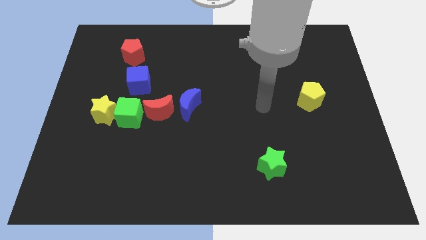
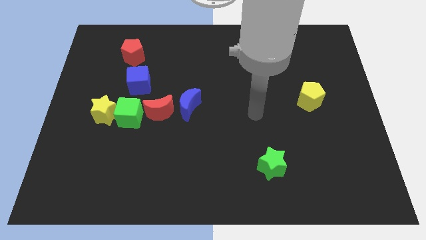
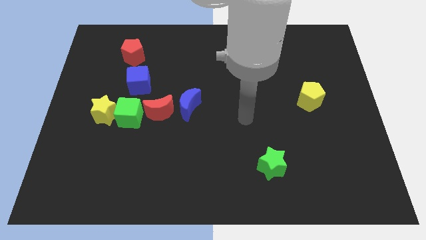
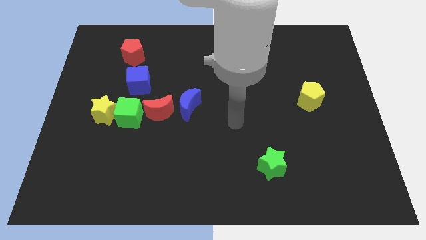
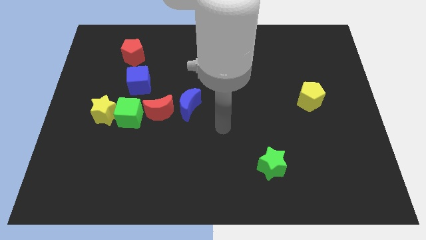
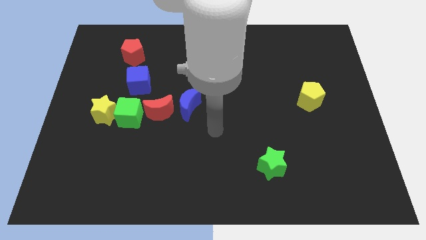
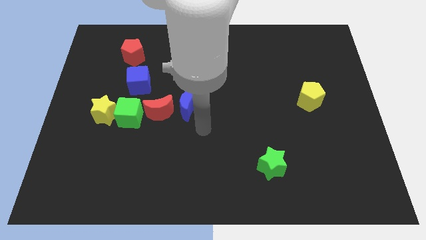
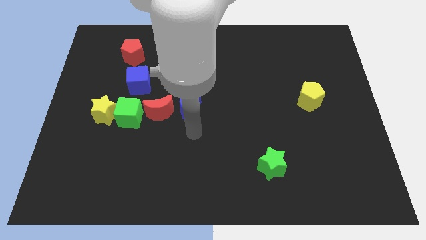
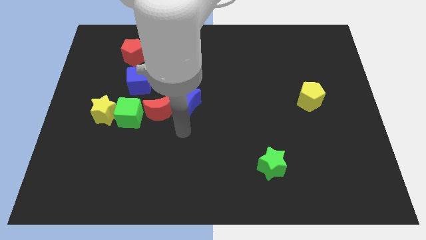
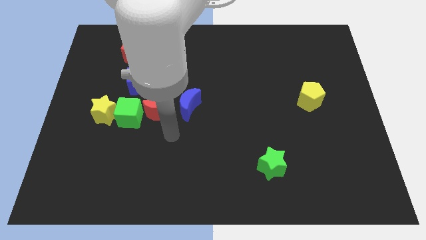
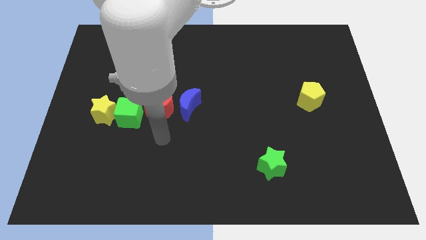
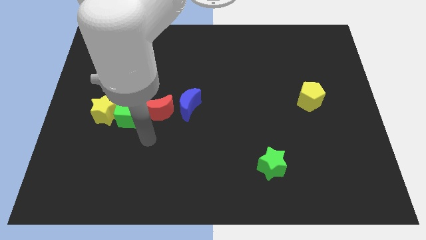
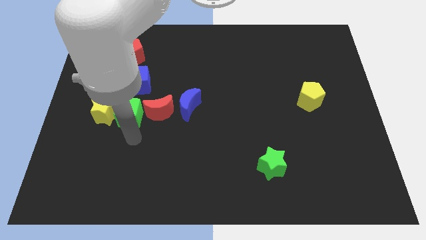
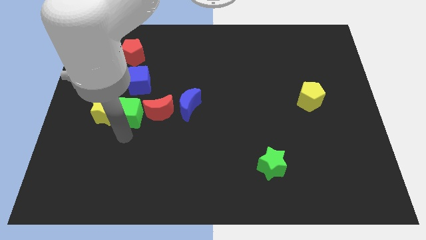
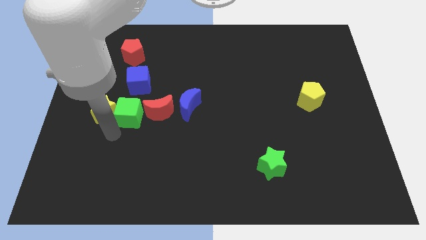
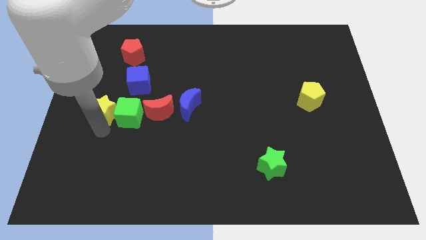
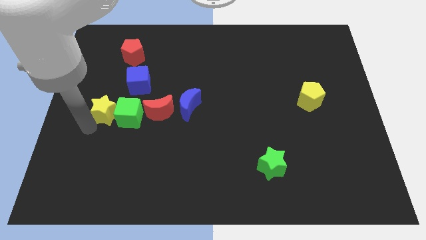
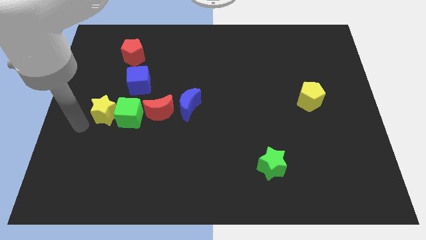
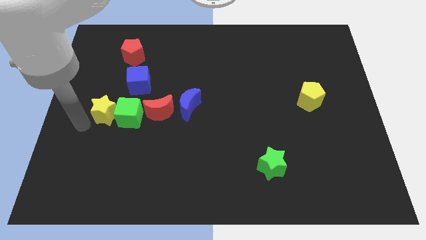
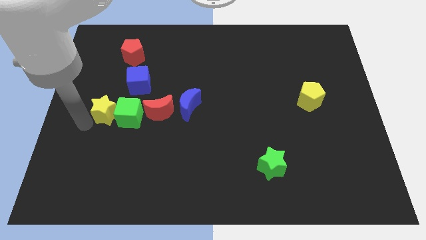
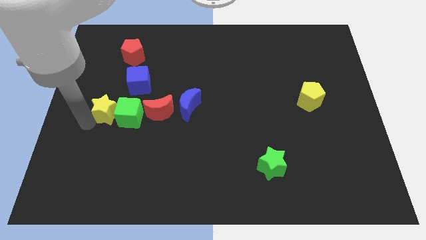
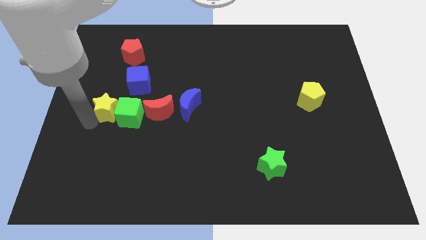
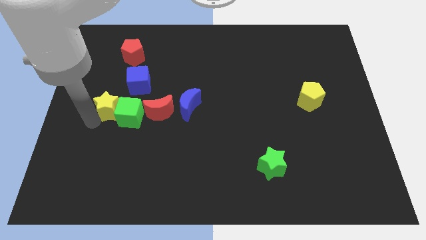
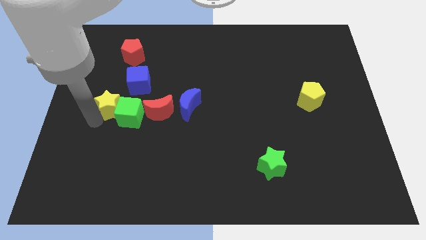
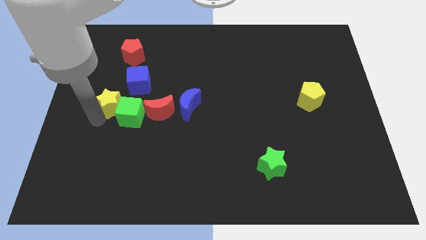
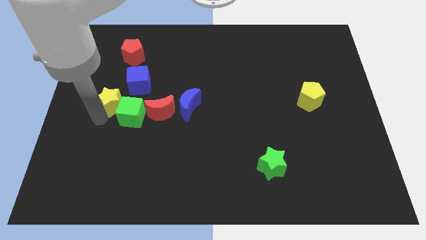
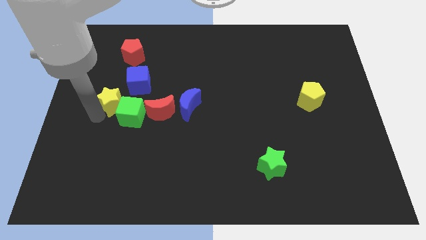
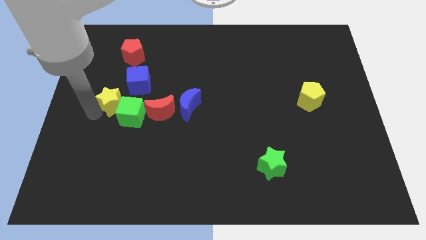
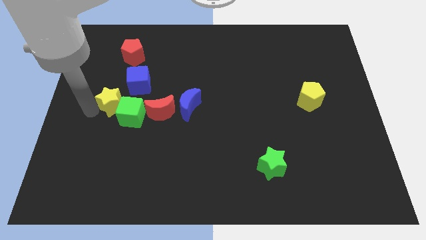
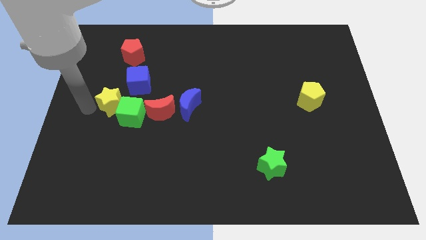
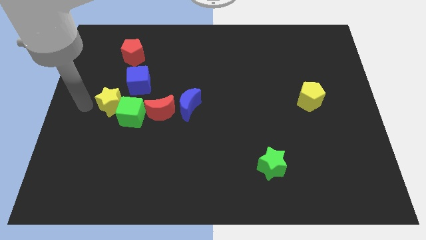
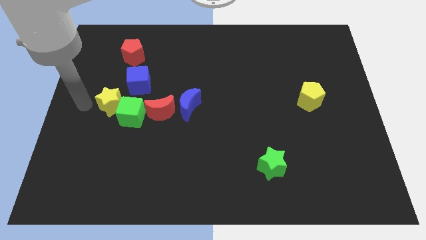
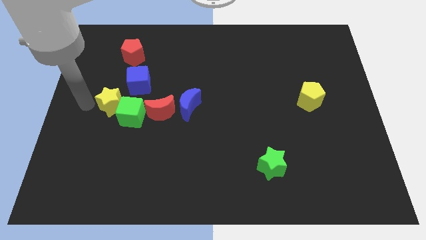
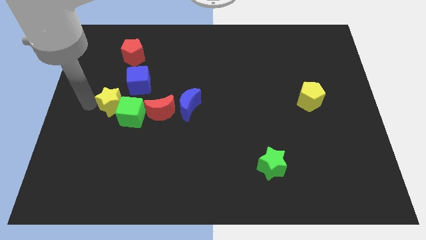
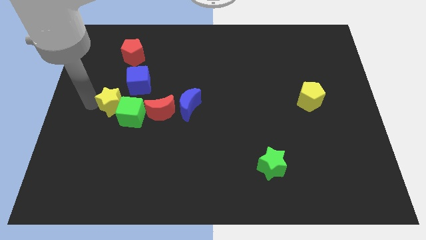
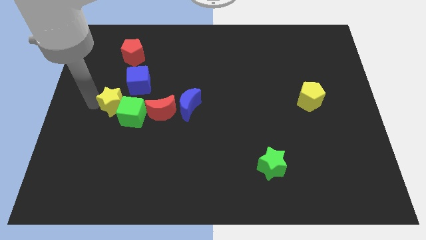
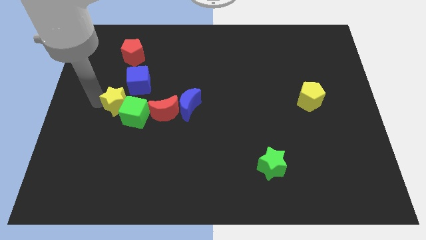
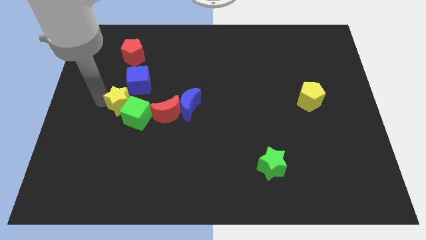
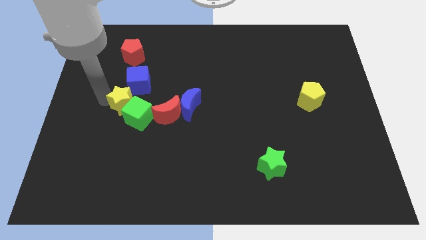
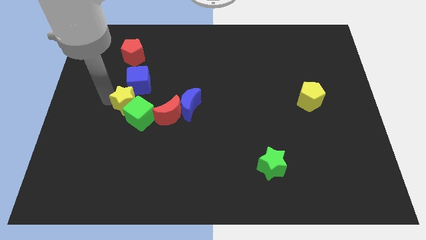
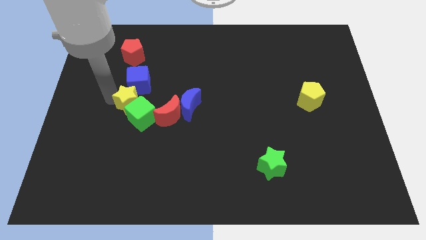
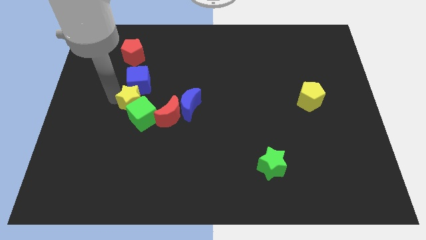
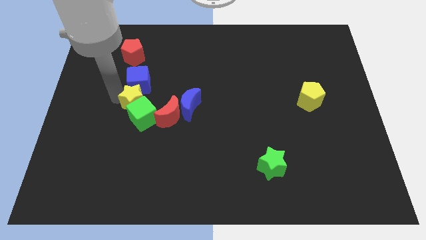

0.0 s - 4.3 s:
move the yellow star upwards and to the right diagonally a little bit

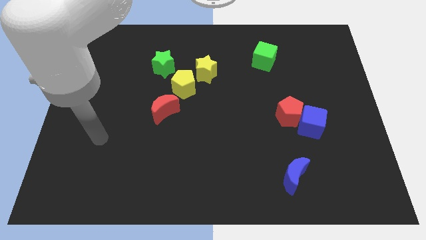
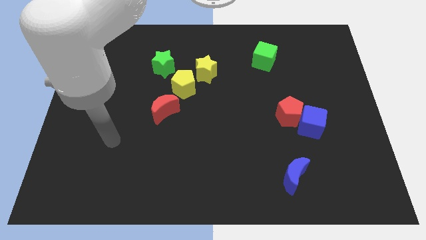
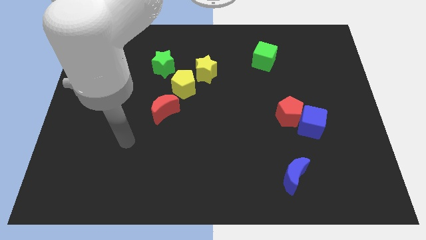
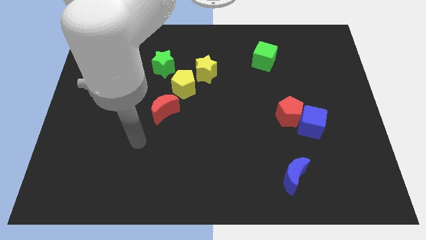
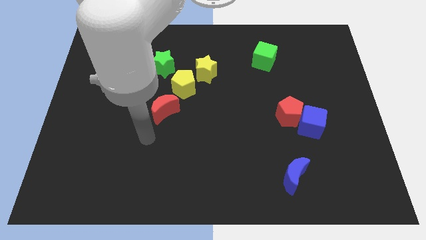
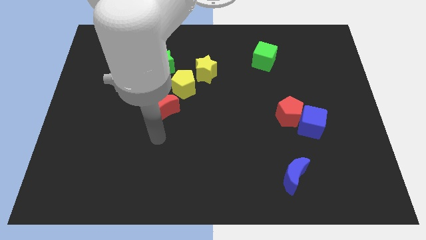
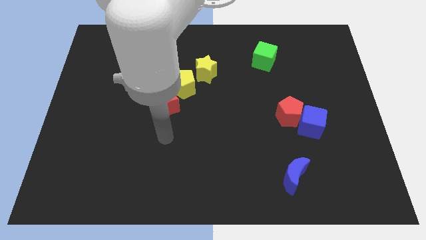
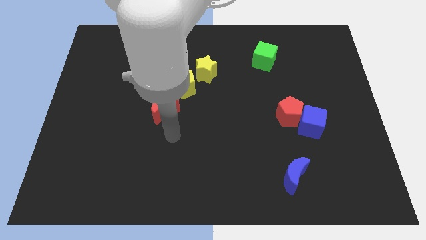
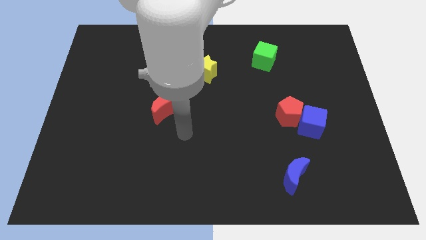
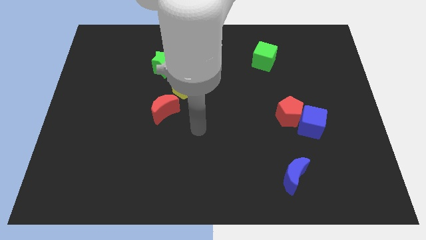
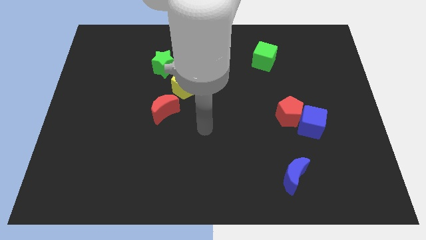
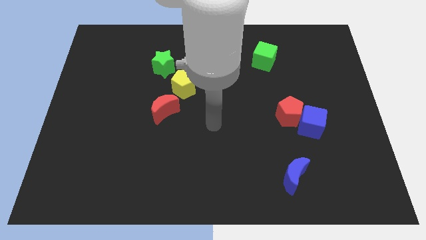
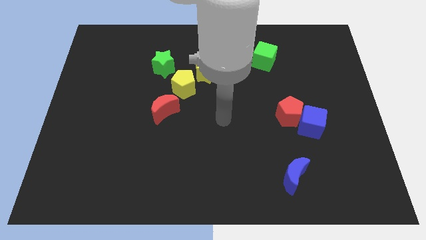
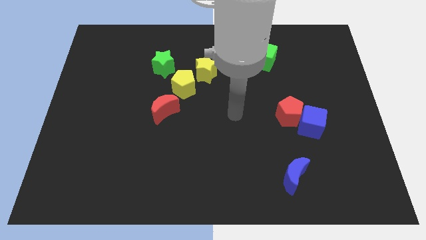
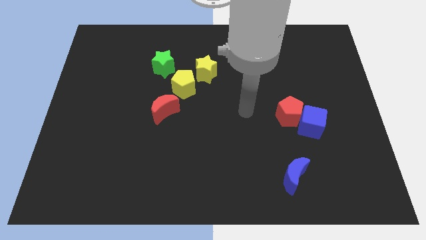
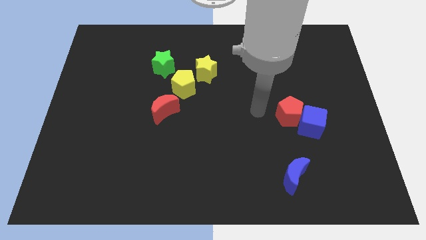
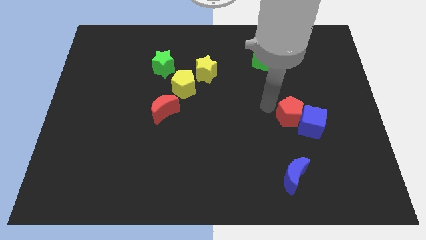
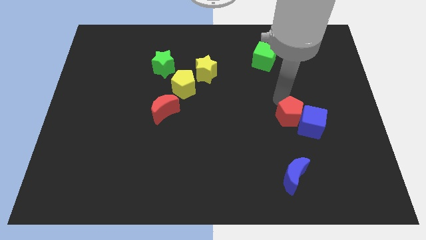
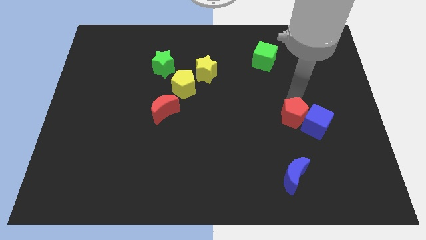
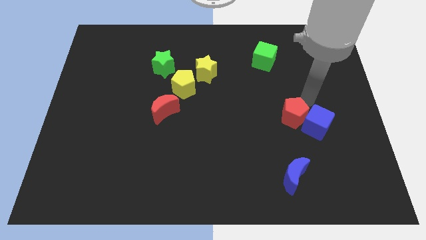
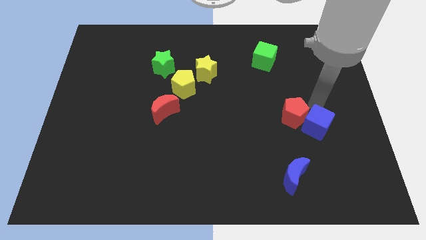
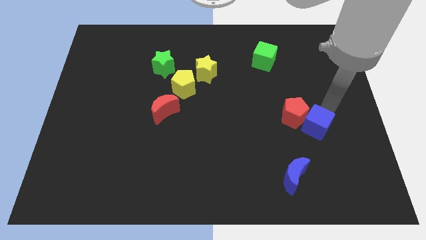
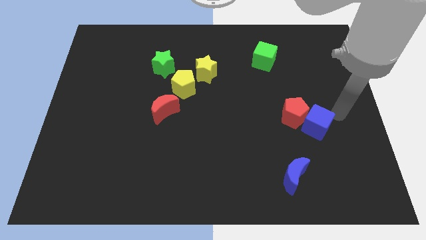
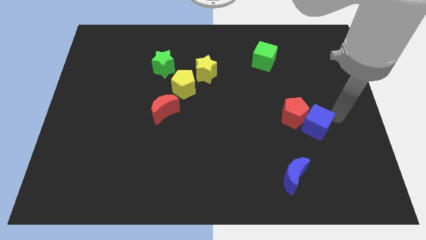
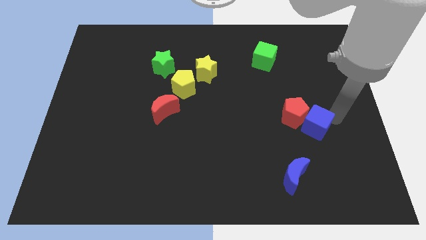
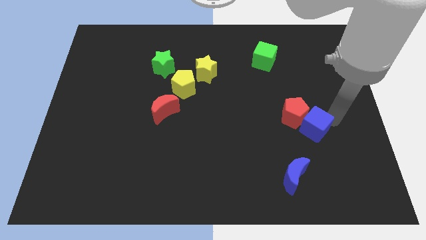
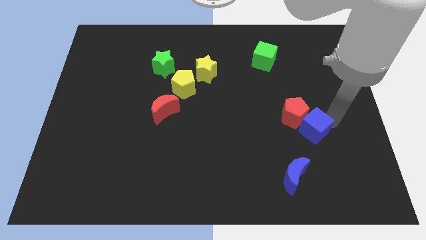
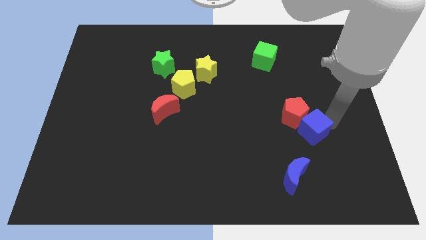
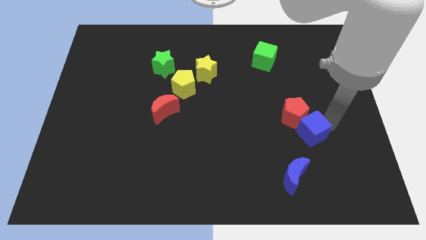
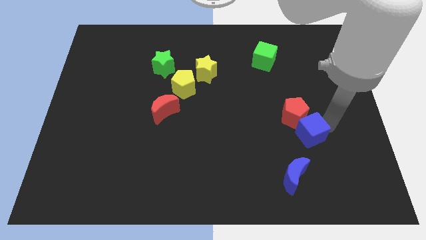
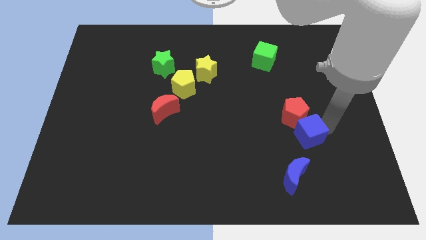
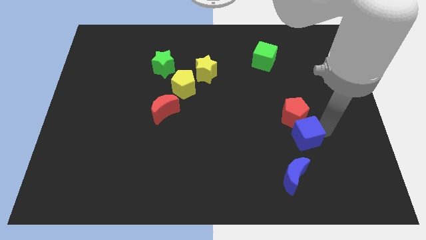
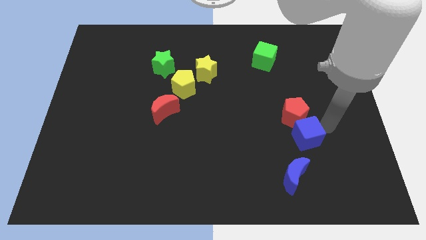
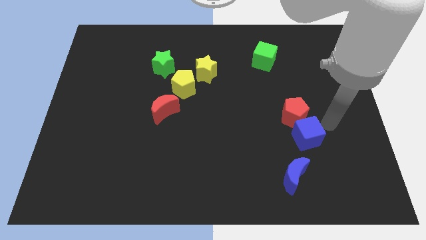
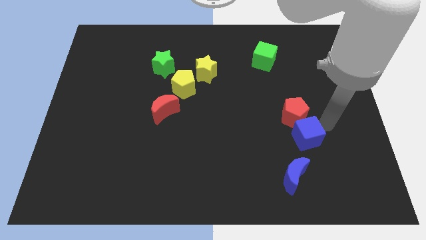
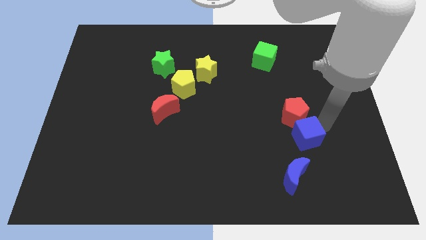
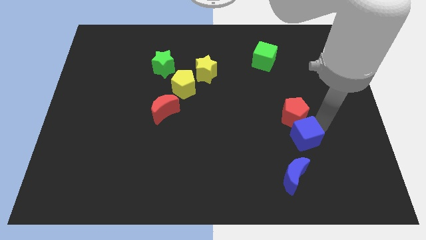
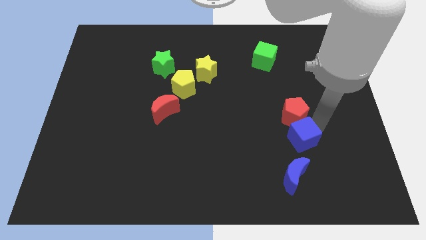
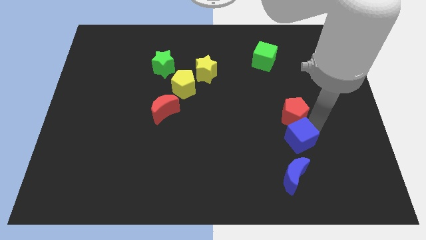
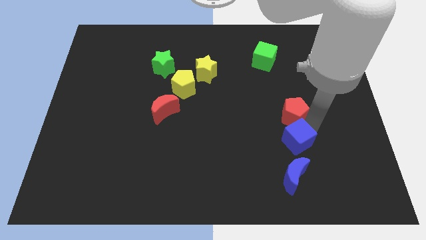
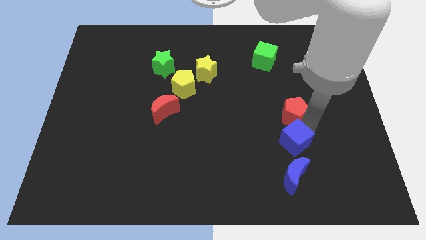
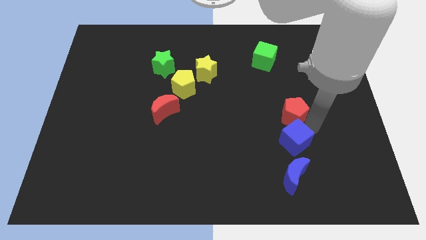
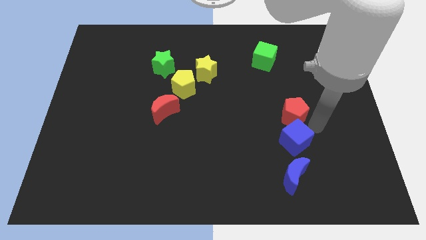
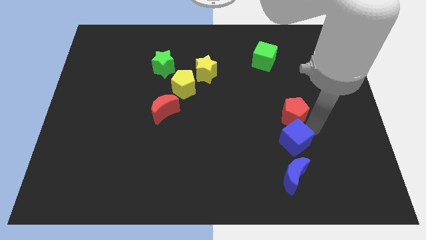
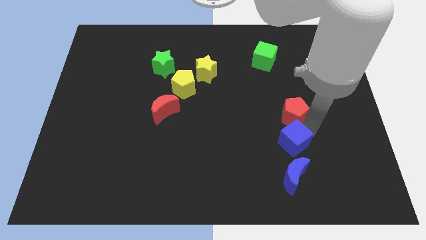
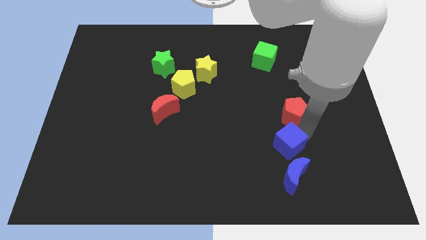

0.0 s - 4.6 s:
slide the blue cube somewhat down and then left
